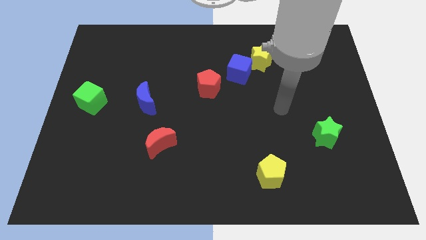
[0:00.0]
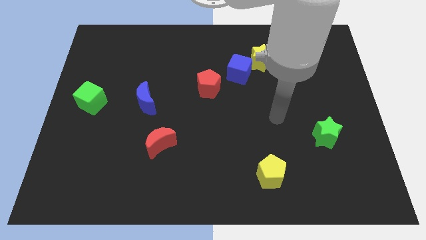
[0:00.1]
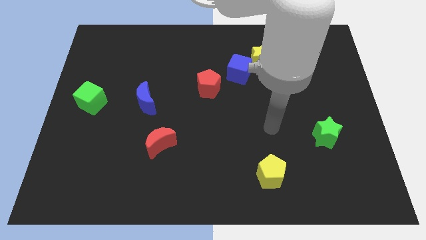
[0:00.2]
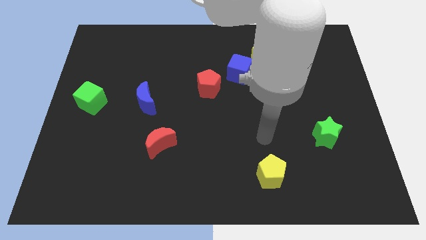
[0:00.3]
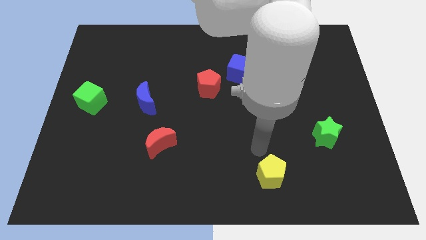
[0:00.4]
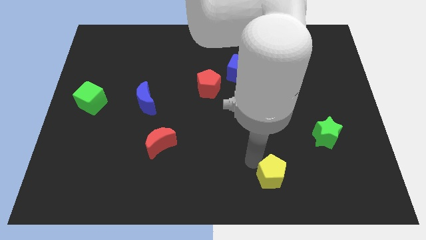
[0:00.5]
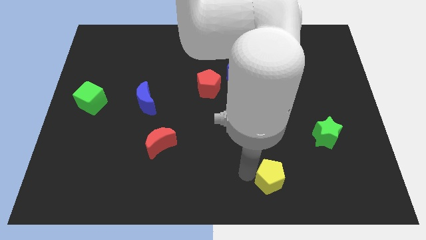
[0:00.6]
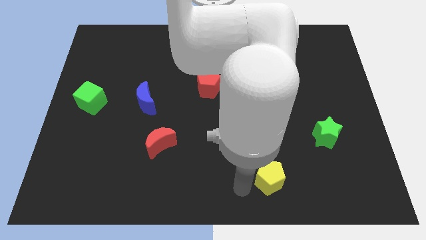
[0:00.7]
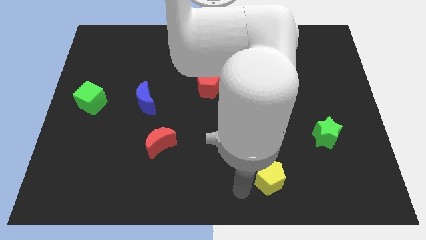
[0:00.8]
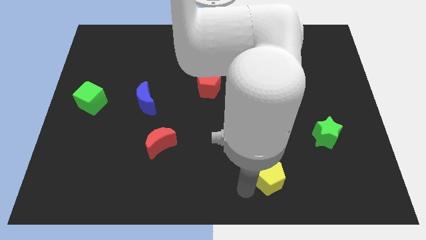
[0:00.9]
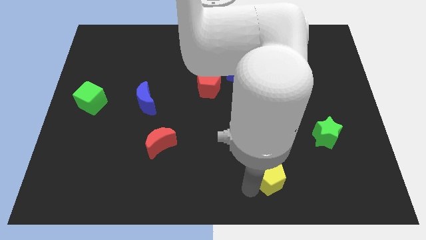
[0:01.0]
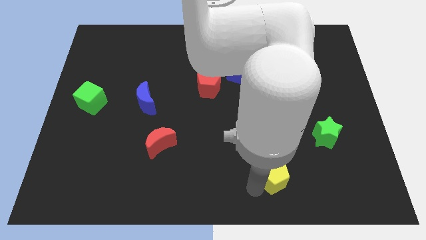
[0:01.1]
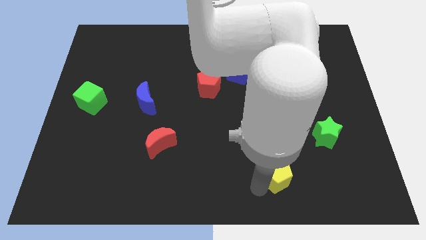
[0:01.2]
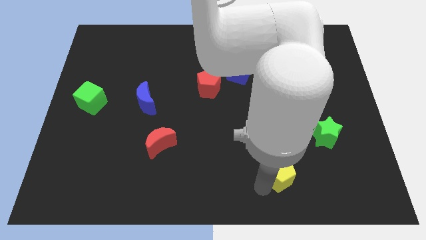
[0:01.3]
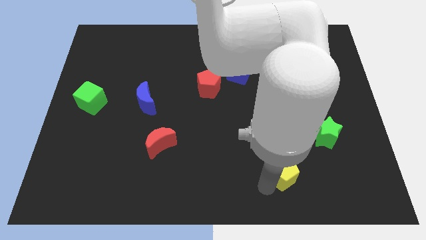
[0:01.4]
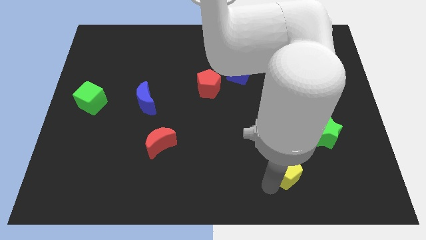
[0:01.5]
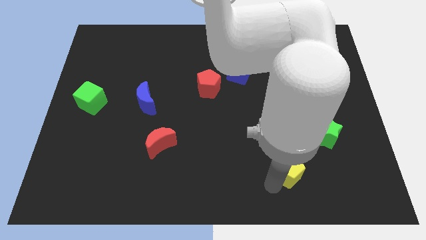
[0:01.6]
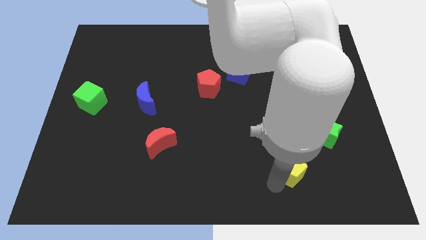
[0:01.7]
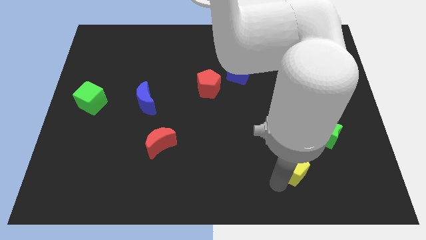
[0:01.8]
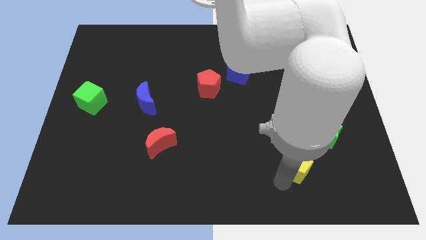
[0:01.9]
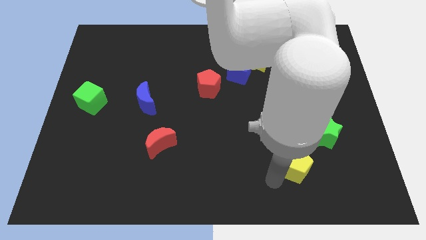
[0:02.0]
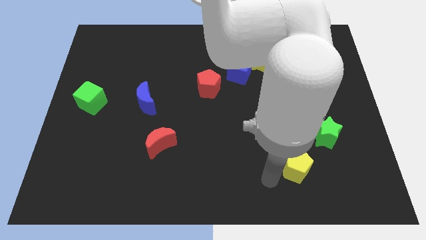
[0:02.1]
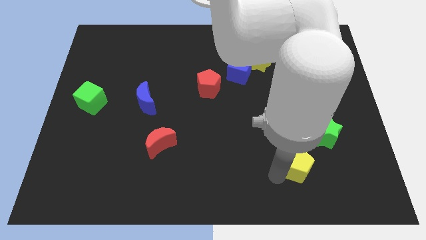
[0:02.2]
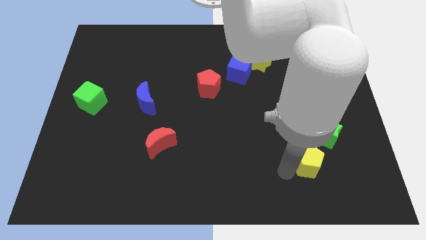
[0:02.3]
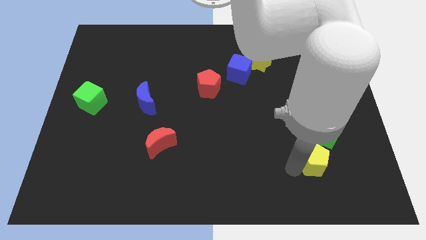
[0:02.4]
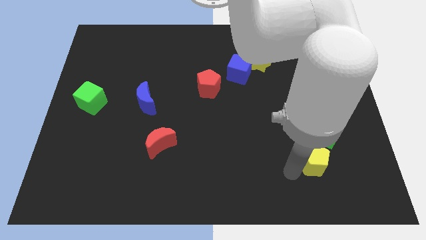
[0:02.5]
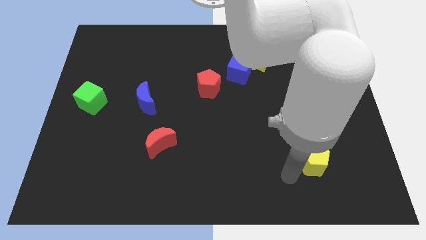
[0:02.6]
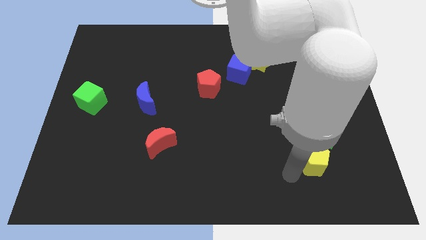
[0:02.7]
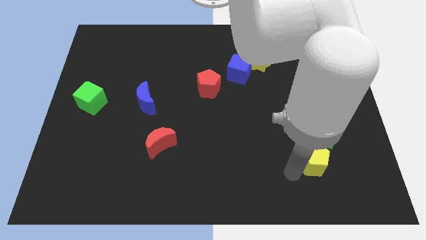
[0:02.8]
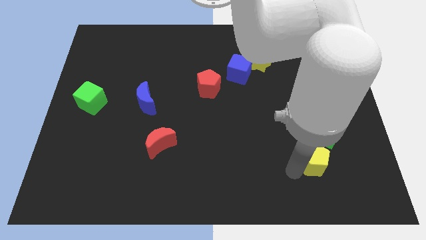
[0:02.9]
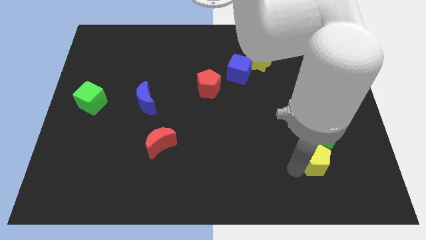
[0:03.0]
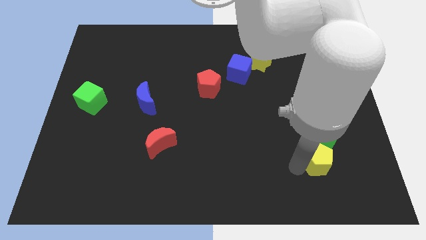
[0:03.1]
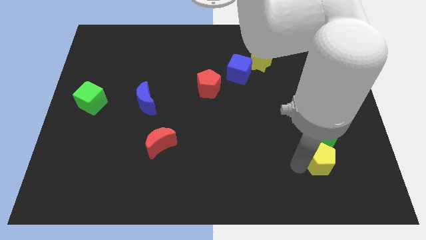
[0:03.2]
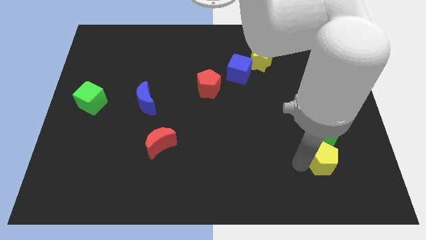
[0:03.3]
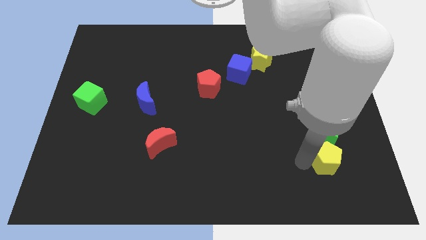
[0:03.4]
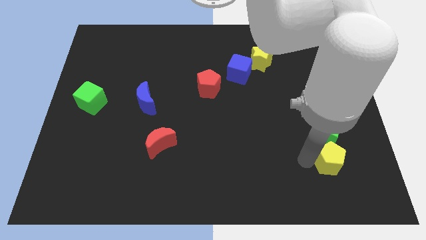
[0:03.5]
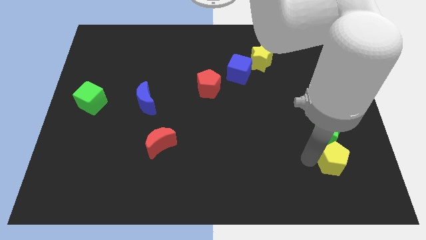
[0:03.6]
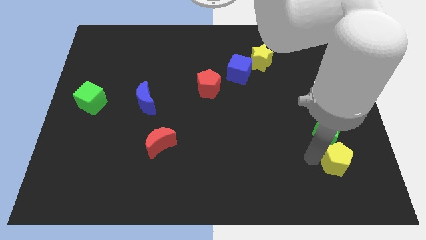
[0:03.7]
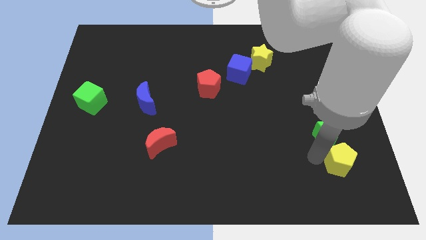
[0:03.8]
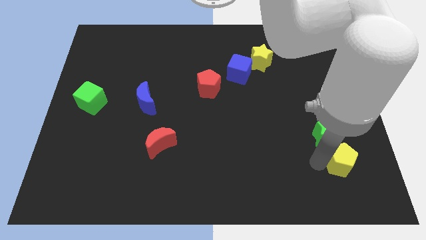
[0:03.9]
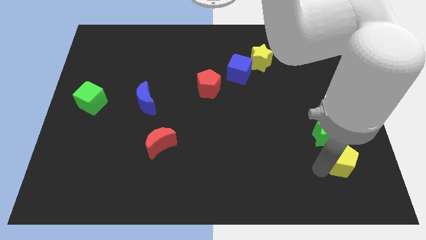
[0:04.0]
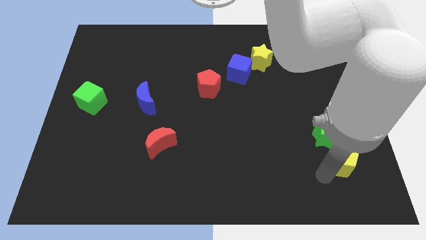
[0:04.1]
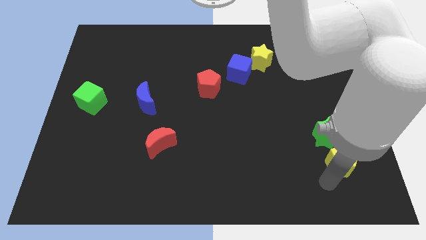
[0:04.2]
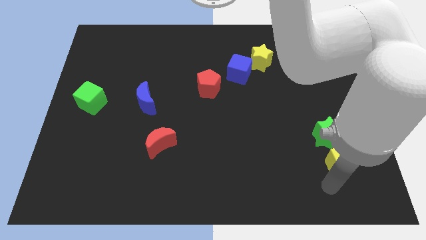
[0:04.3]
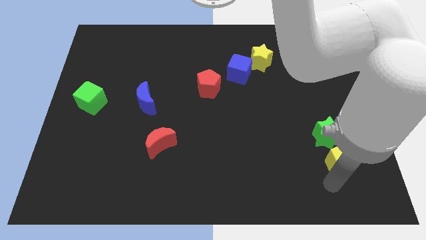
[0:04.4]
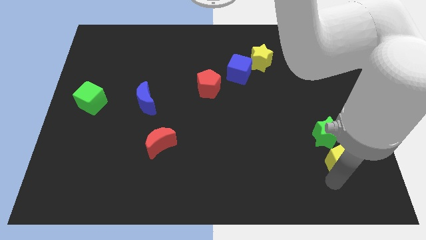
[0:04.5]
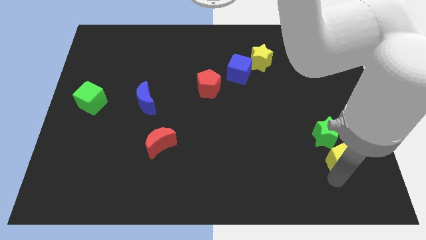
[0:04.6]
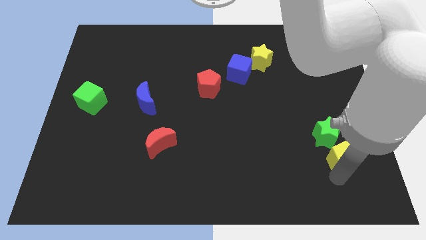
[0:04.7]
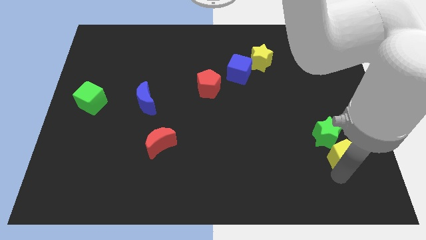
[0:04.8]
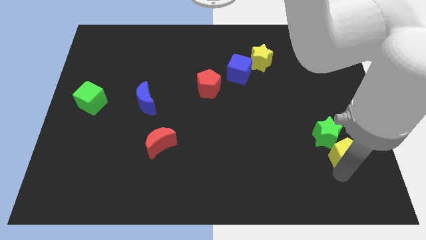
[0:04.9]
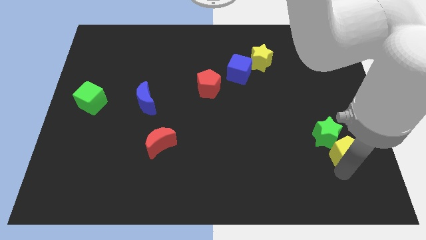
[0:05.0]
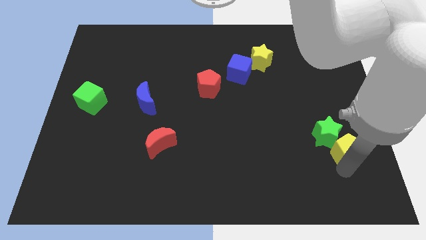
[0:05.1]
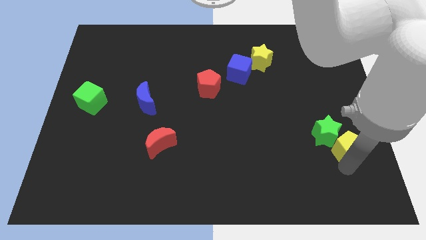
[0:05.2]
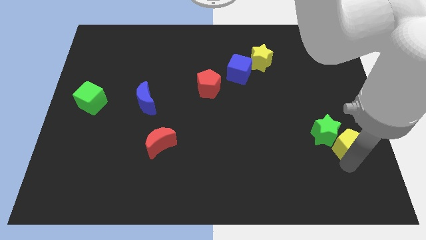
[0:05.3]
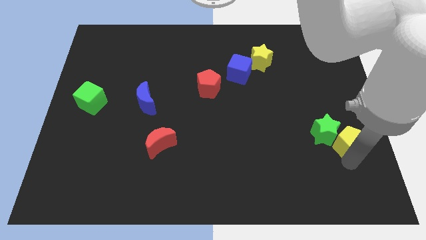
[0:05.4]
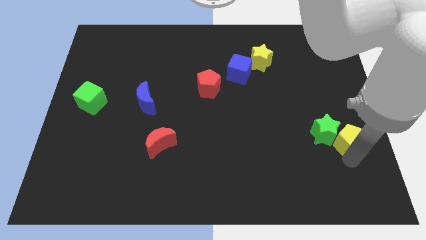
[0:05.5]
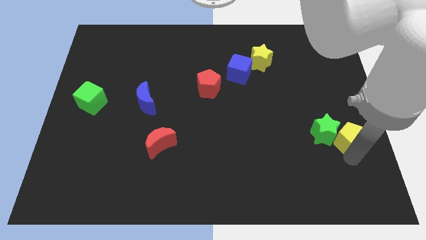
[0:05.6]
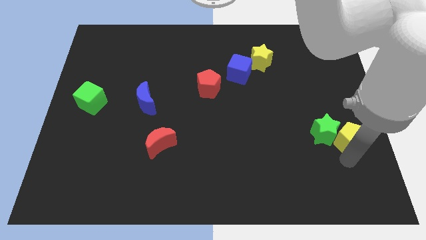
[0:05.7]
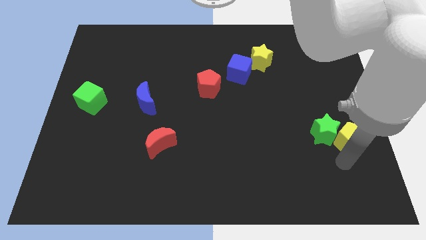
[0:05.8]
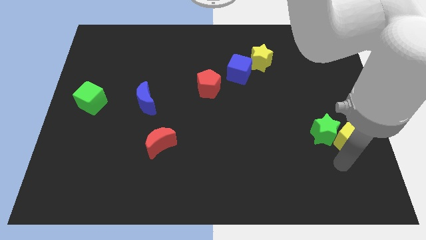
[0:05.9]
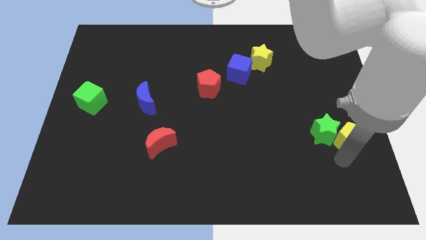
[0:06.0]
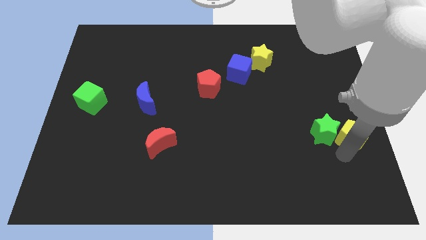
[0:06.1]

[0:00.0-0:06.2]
put the yellow pentagon to the right side of the board
